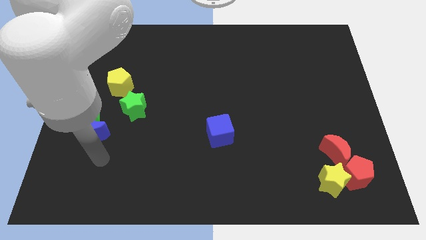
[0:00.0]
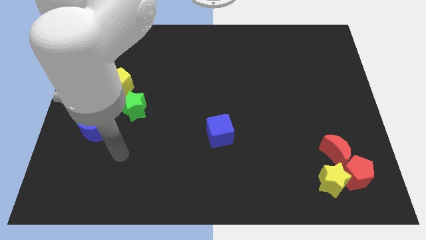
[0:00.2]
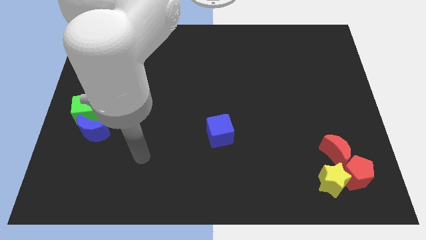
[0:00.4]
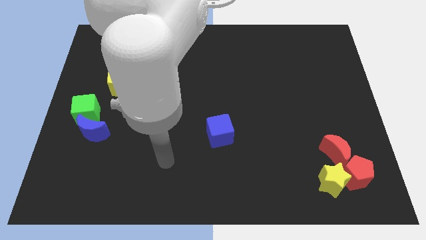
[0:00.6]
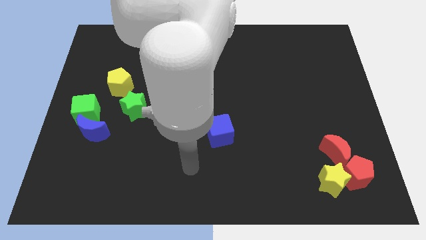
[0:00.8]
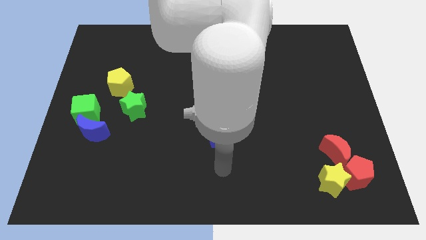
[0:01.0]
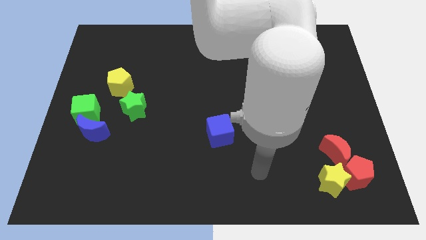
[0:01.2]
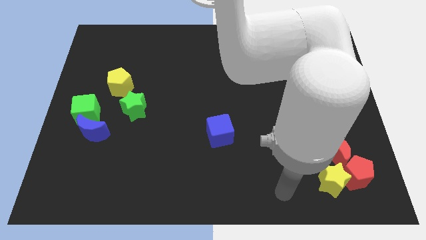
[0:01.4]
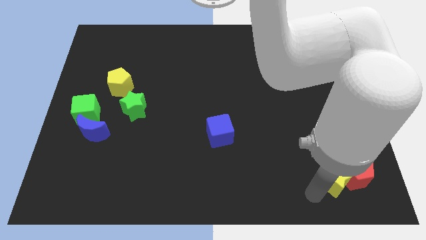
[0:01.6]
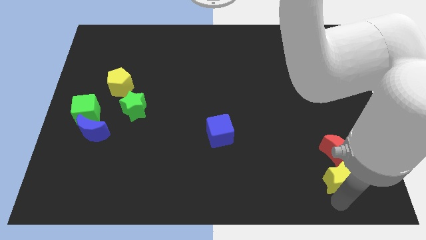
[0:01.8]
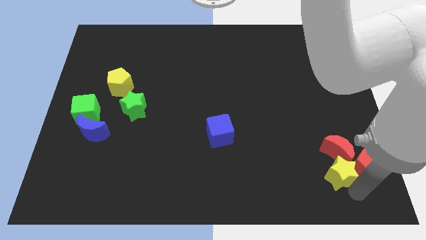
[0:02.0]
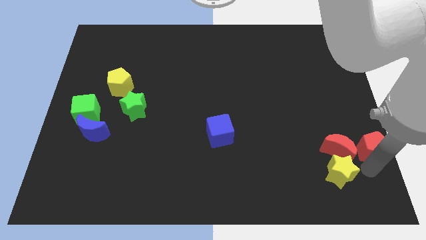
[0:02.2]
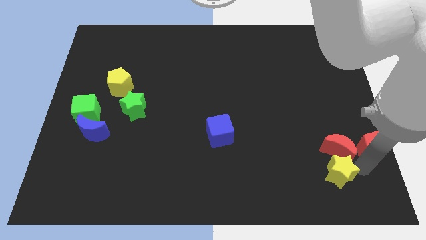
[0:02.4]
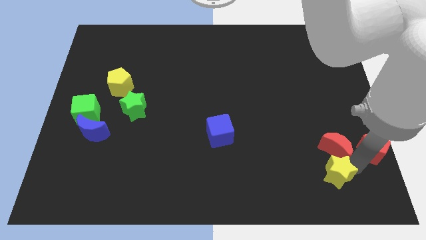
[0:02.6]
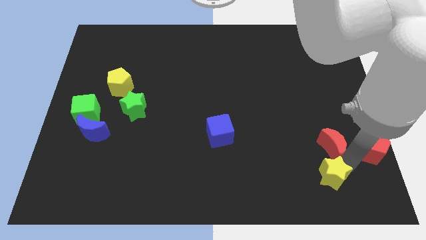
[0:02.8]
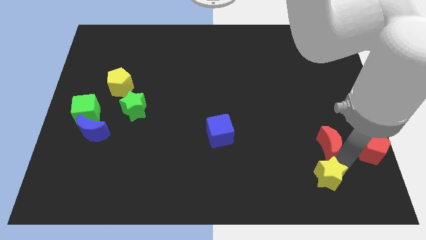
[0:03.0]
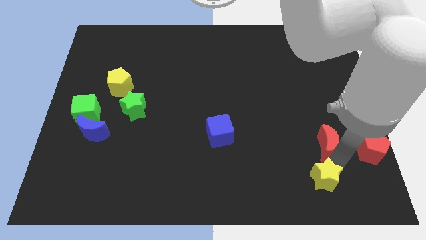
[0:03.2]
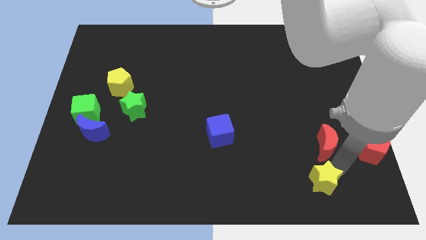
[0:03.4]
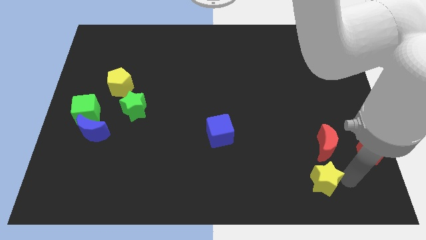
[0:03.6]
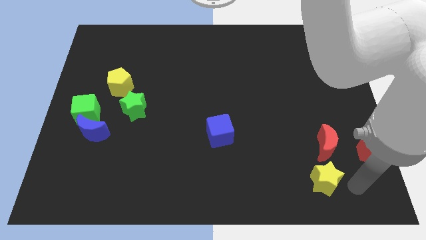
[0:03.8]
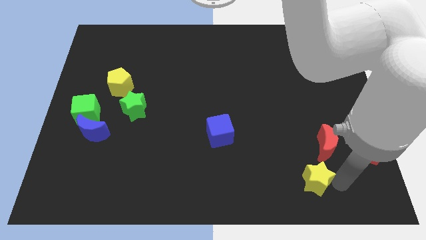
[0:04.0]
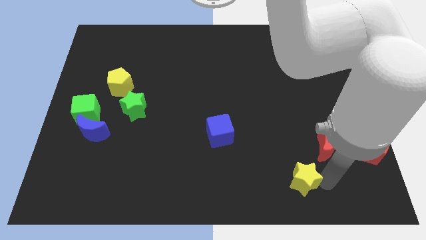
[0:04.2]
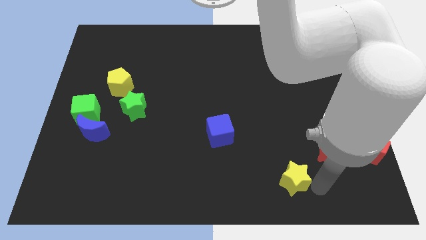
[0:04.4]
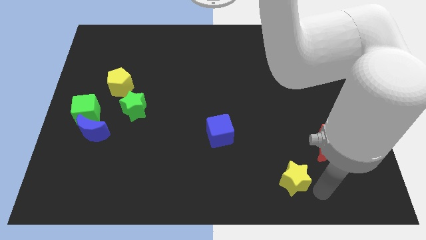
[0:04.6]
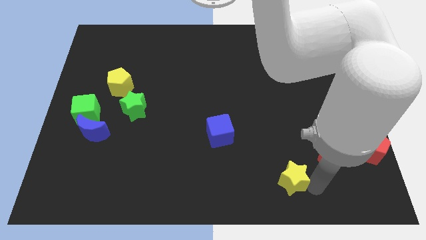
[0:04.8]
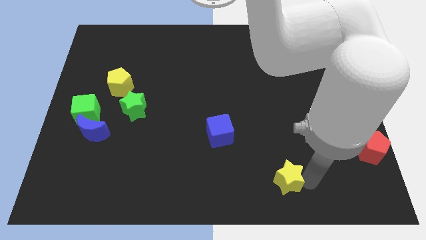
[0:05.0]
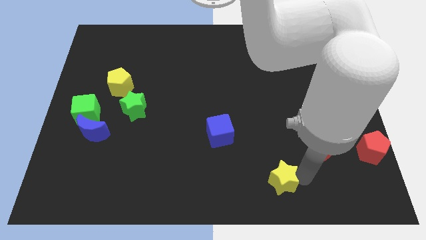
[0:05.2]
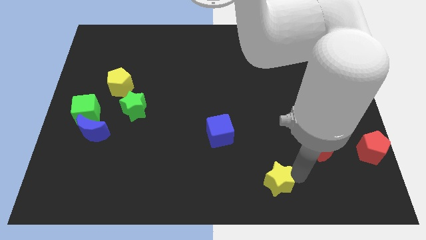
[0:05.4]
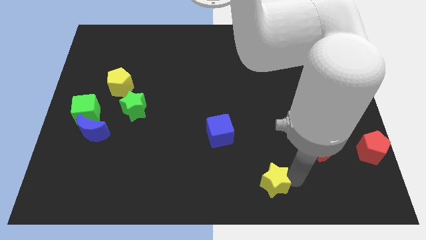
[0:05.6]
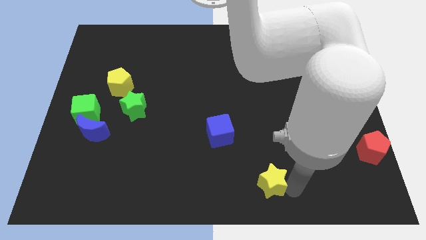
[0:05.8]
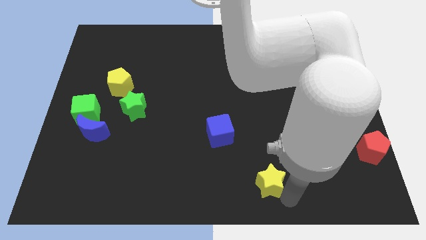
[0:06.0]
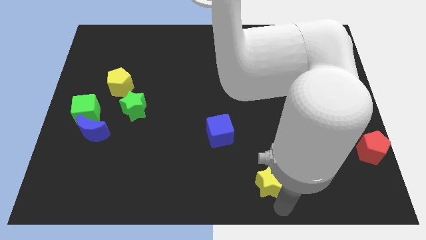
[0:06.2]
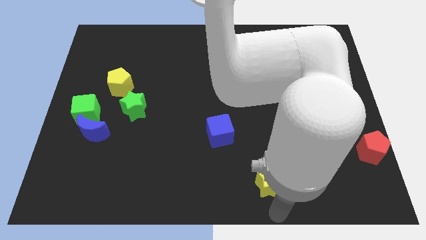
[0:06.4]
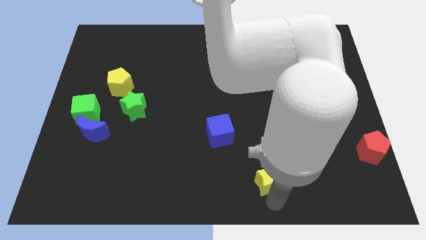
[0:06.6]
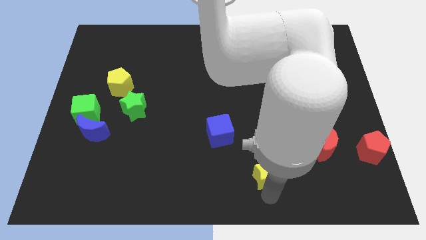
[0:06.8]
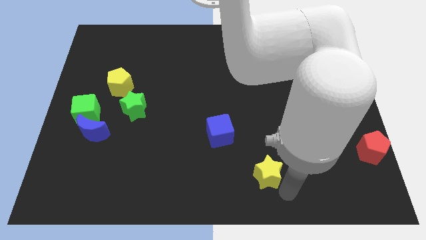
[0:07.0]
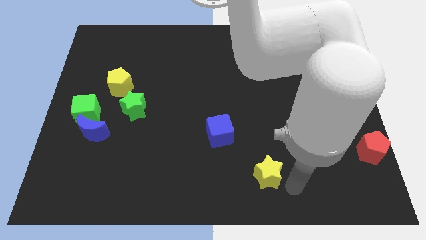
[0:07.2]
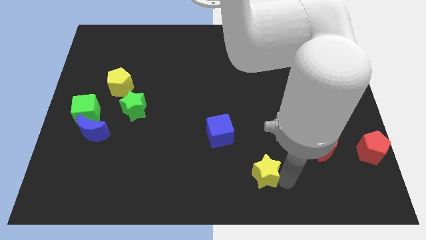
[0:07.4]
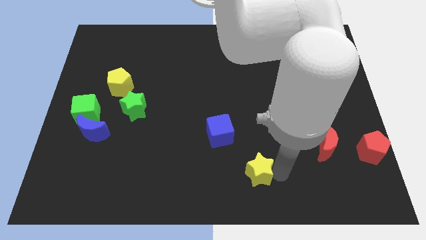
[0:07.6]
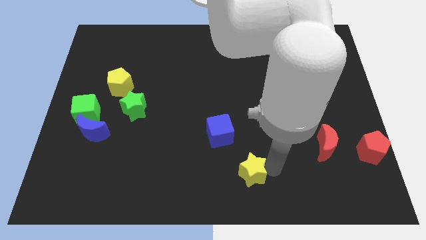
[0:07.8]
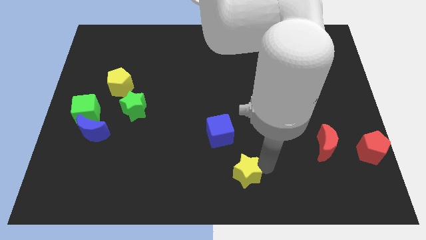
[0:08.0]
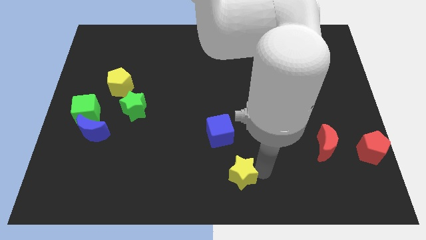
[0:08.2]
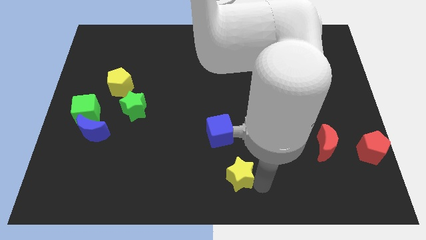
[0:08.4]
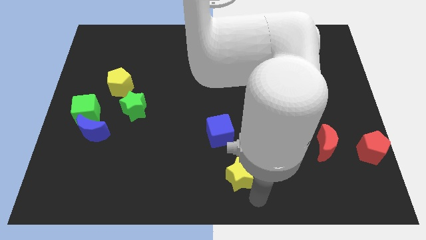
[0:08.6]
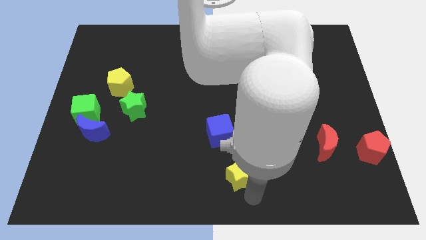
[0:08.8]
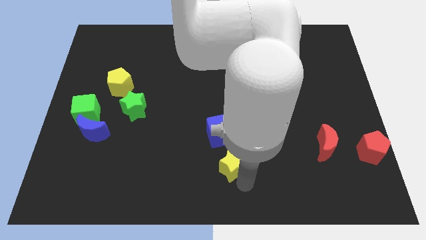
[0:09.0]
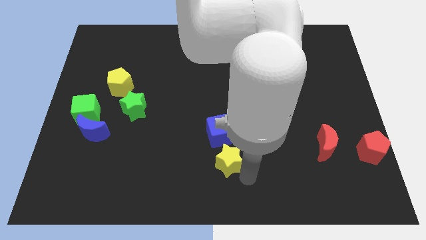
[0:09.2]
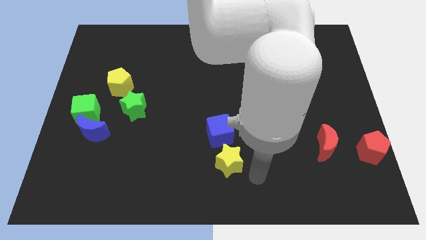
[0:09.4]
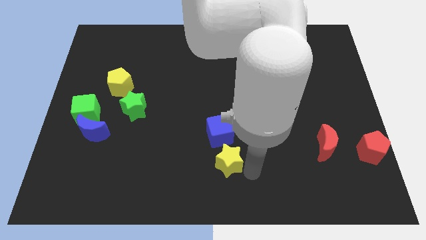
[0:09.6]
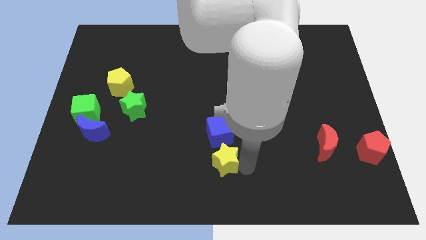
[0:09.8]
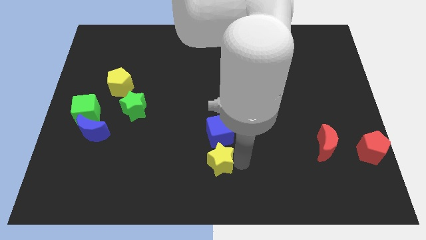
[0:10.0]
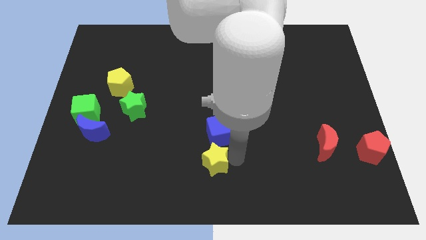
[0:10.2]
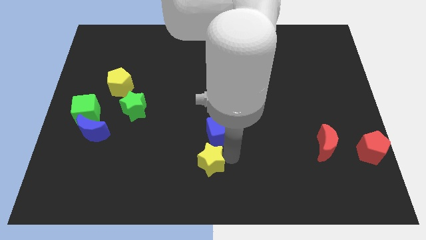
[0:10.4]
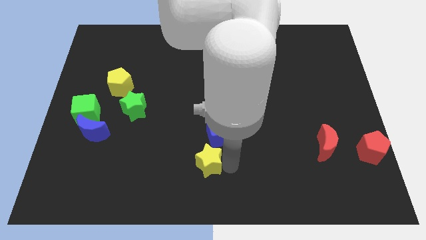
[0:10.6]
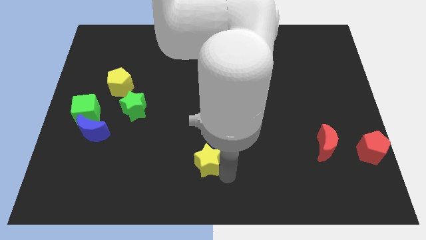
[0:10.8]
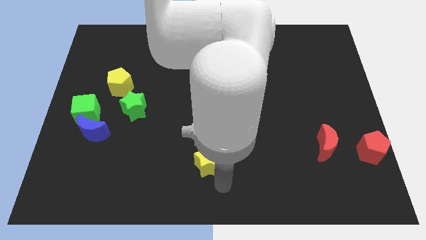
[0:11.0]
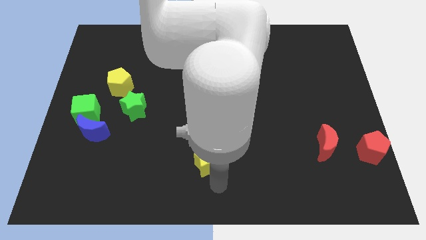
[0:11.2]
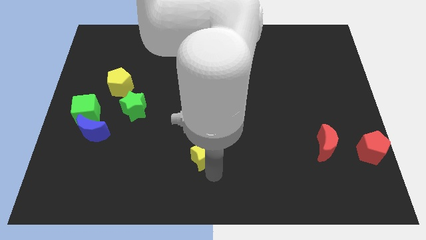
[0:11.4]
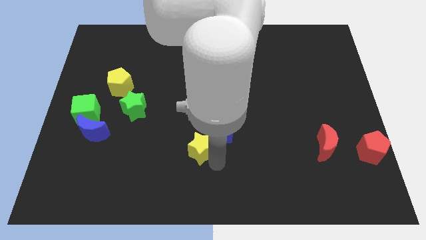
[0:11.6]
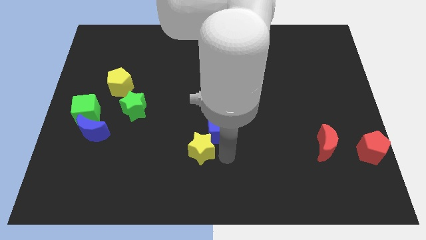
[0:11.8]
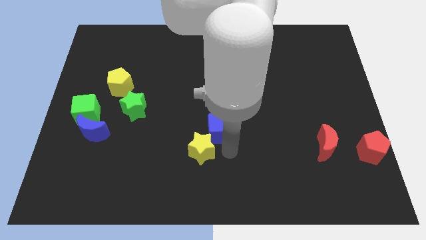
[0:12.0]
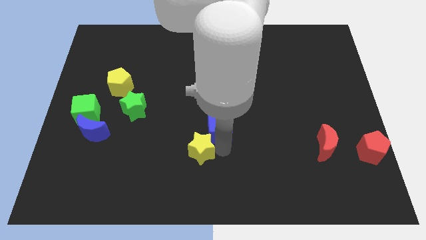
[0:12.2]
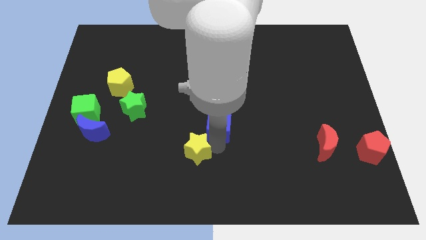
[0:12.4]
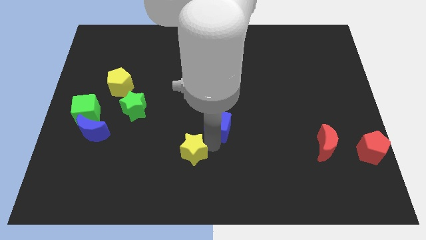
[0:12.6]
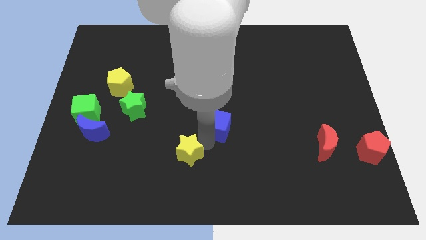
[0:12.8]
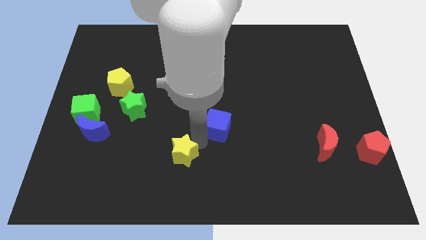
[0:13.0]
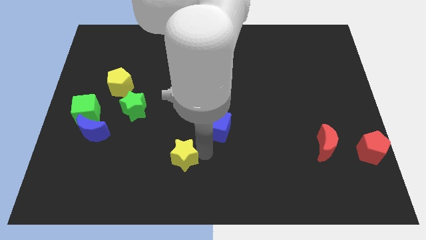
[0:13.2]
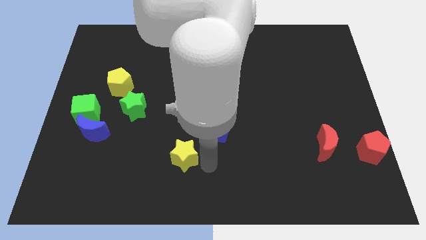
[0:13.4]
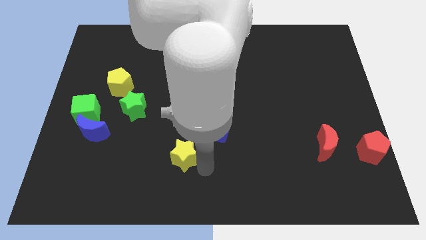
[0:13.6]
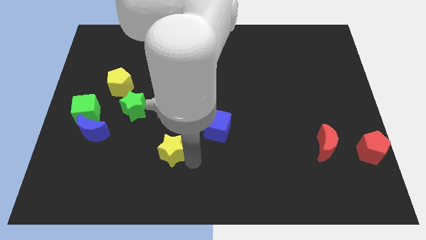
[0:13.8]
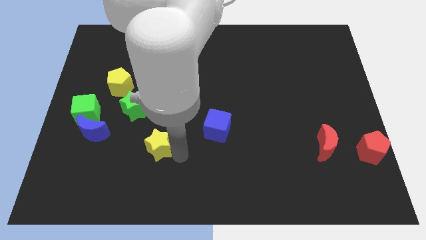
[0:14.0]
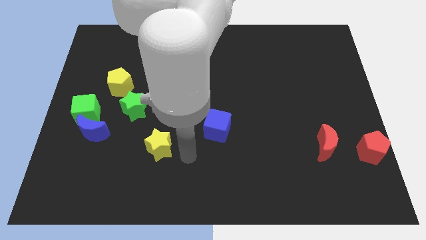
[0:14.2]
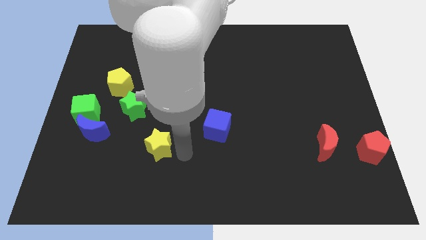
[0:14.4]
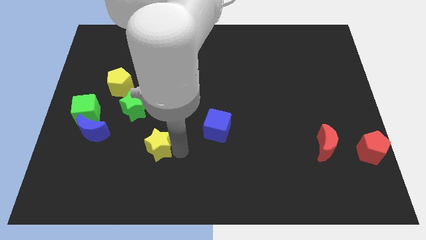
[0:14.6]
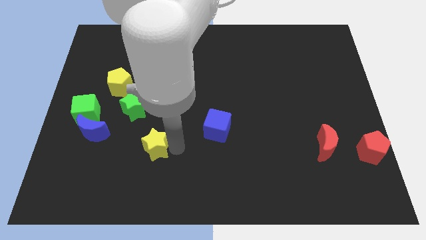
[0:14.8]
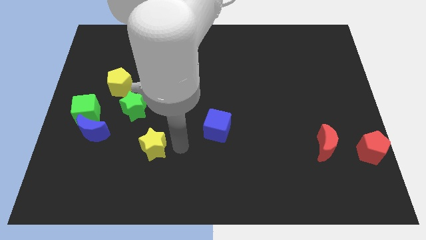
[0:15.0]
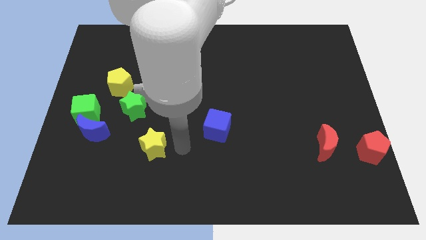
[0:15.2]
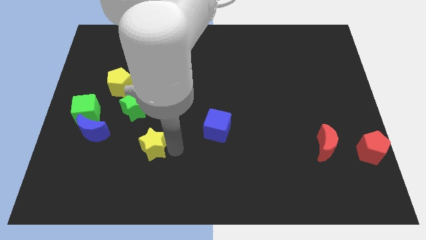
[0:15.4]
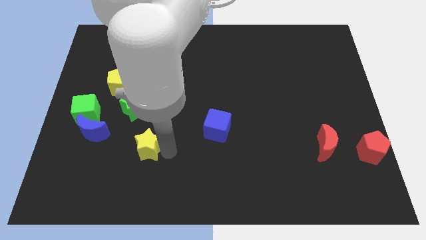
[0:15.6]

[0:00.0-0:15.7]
put the yellow star below the green star
